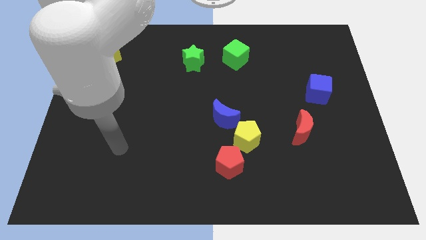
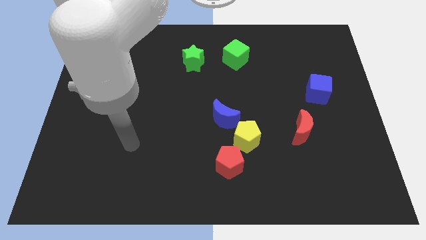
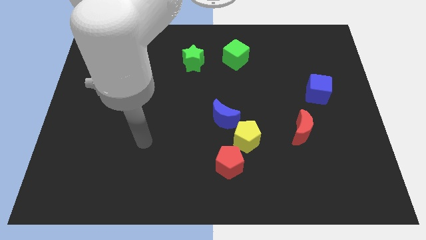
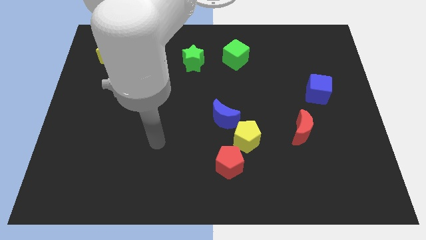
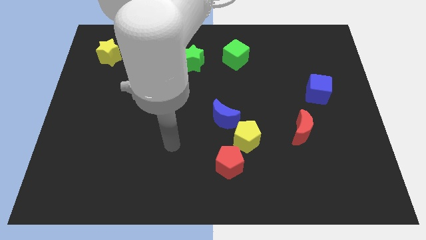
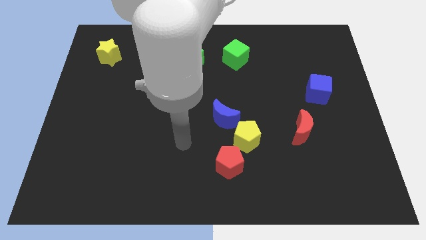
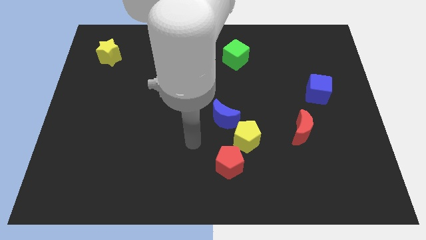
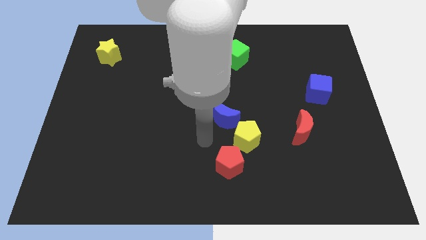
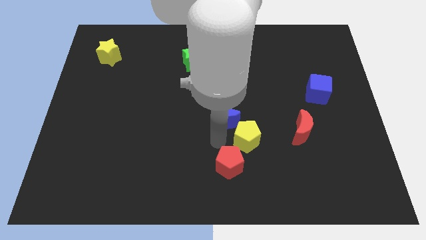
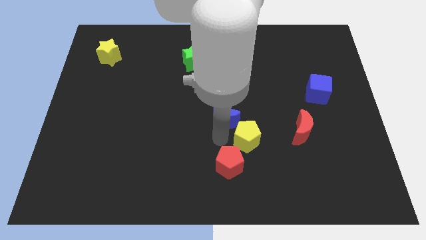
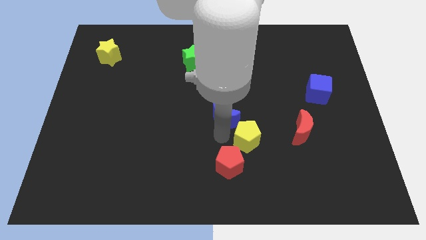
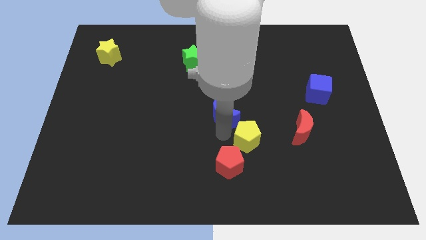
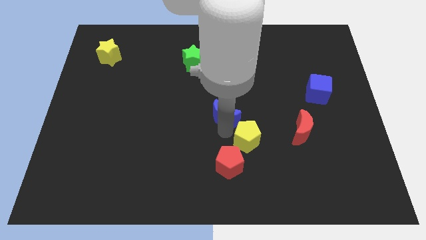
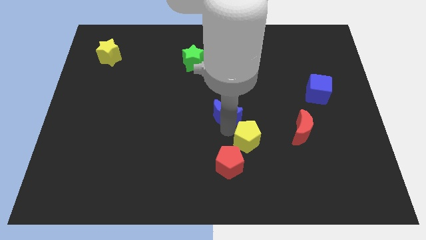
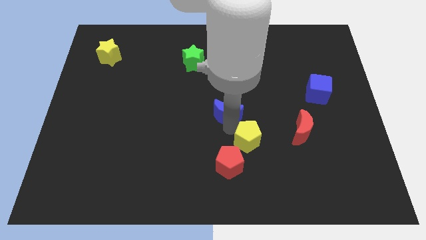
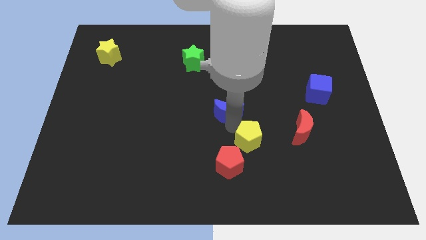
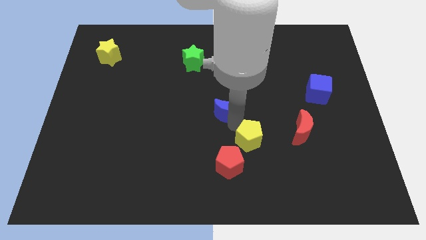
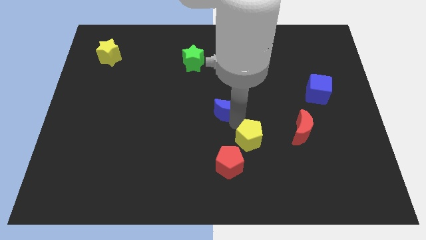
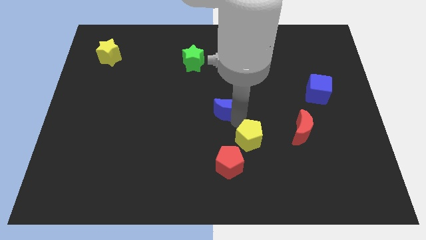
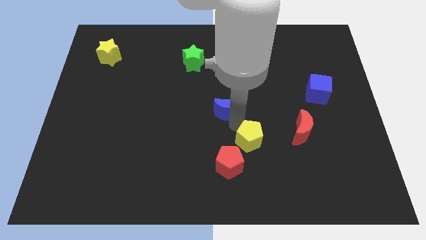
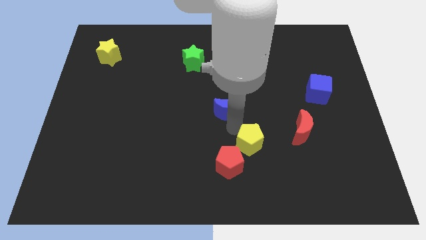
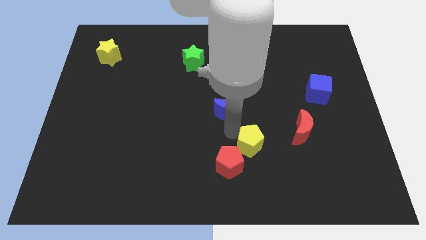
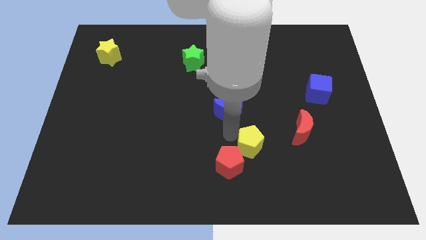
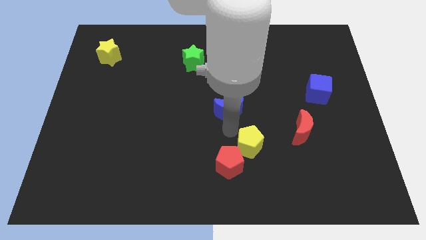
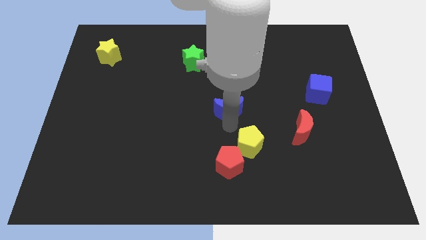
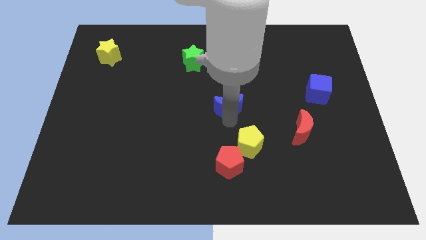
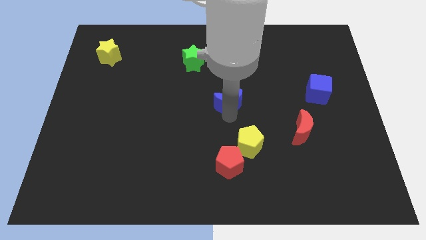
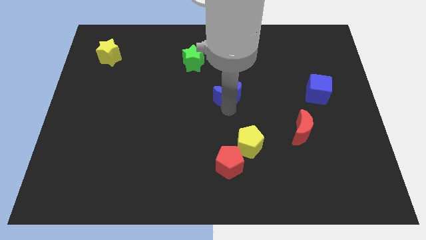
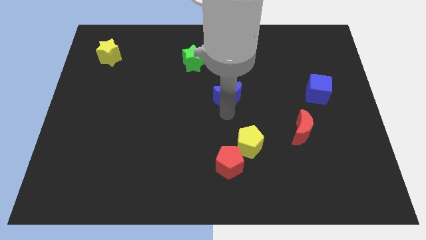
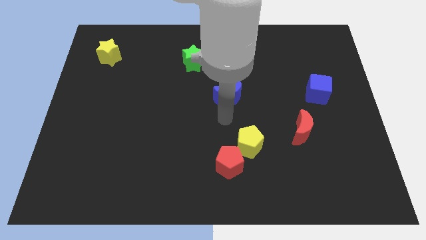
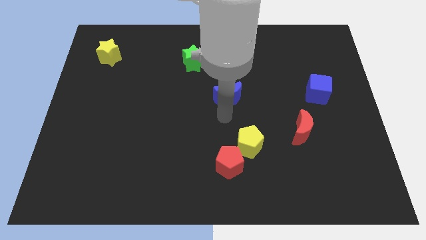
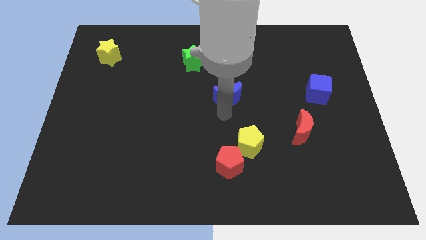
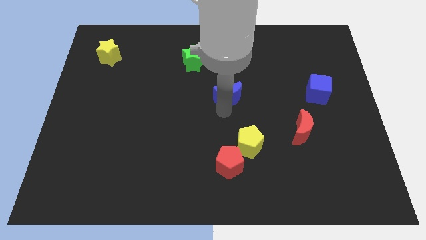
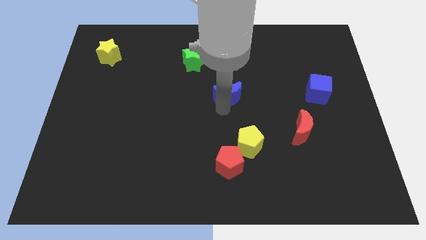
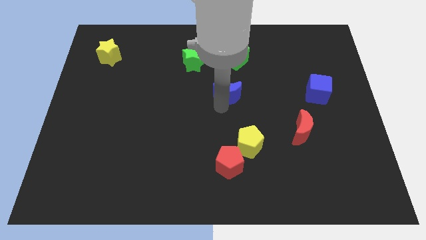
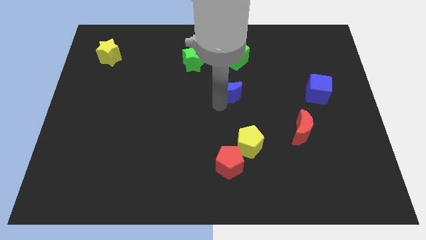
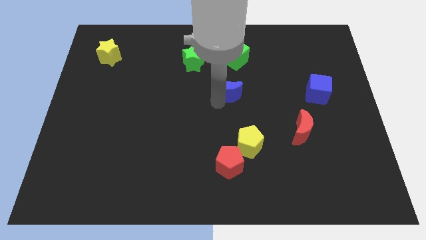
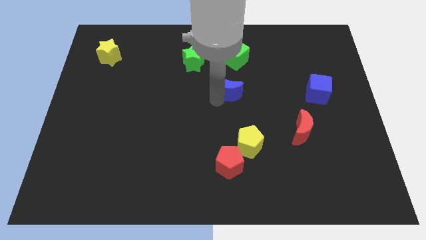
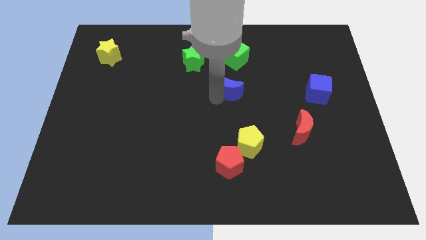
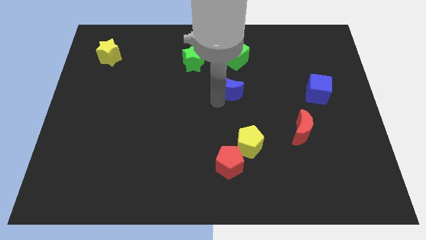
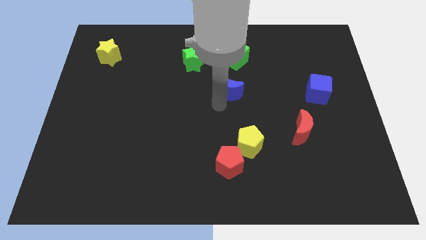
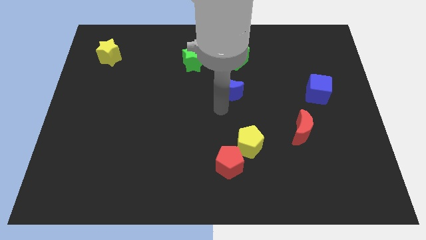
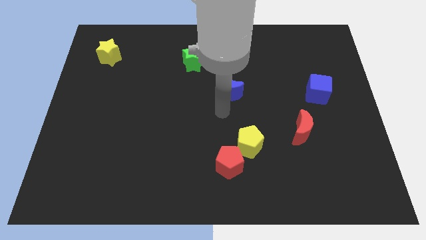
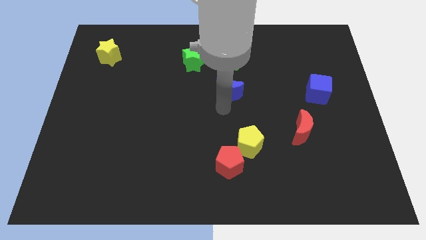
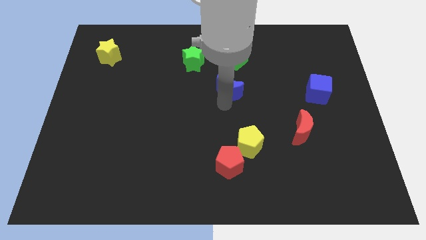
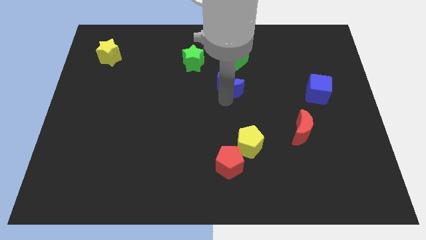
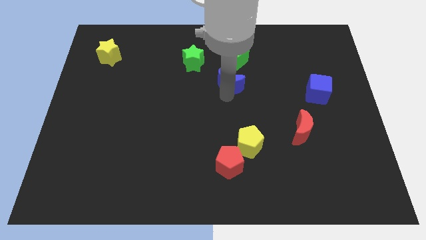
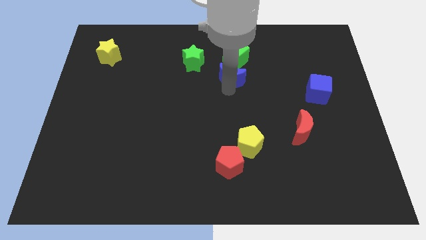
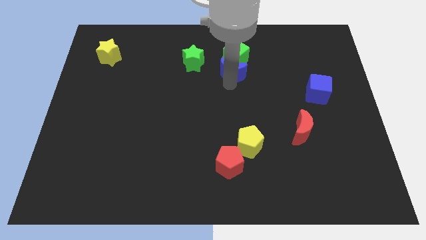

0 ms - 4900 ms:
push the blue moon next to the green cube

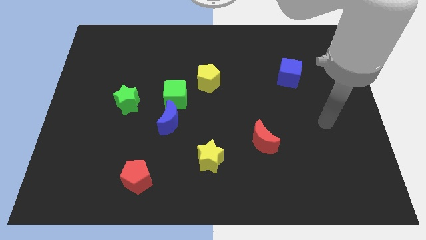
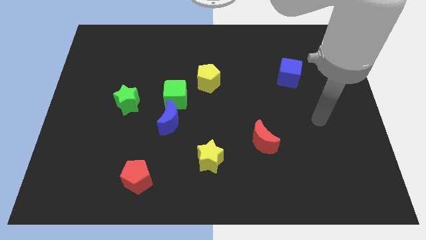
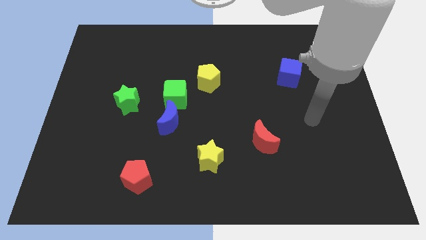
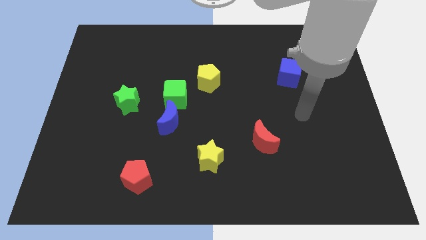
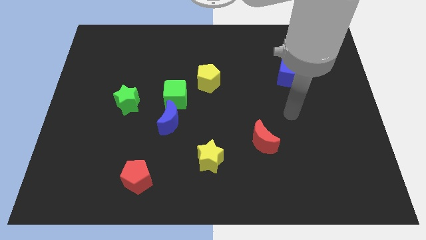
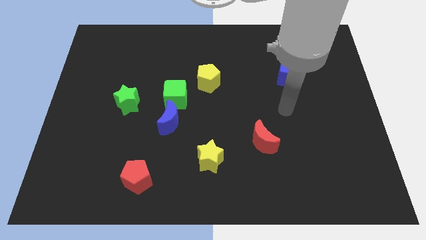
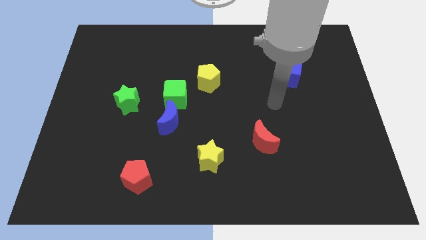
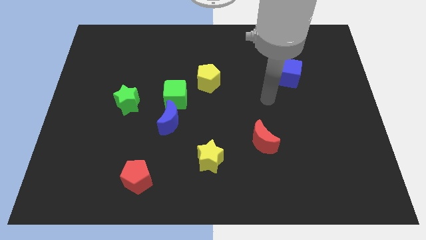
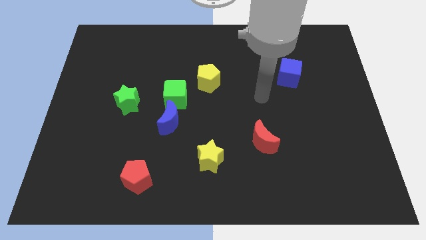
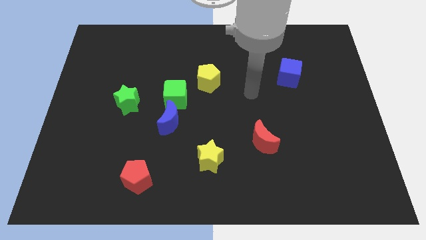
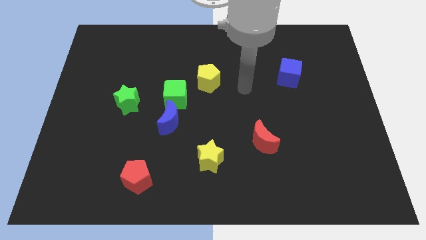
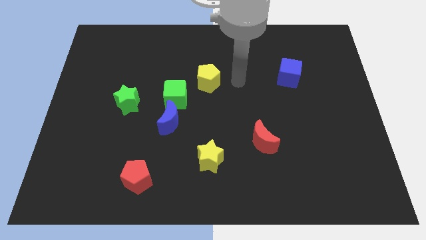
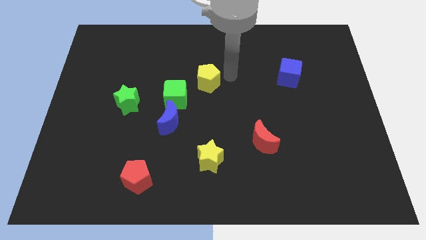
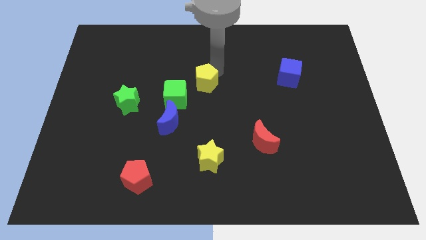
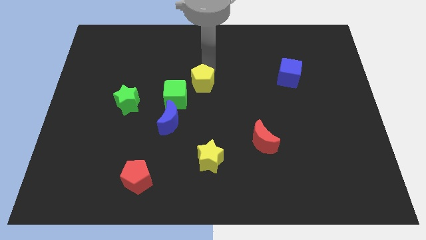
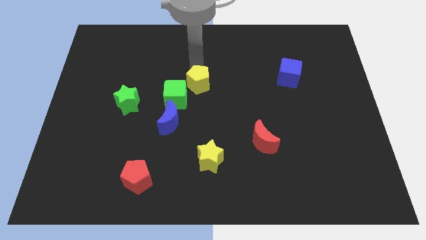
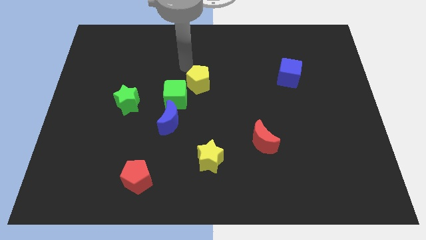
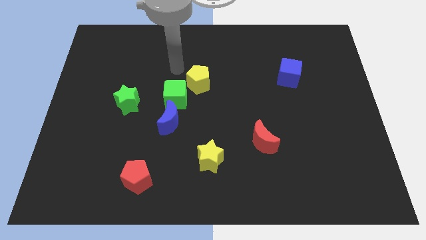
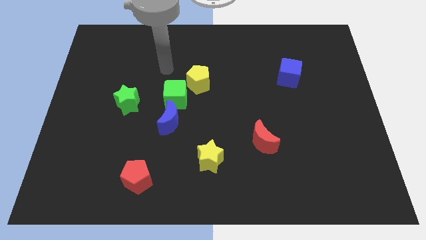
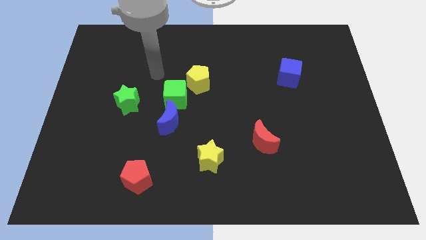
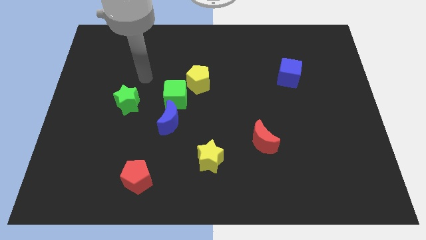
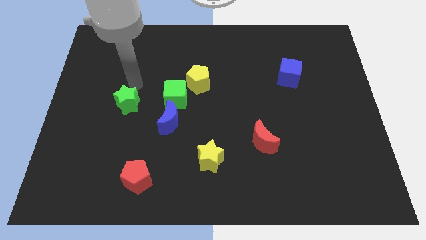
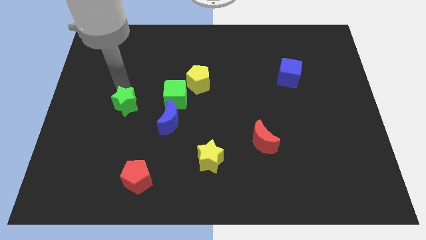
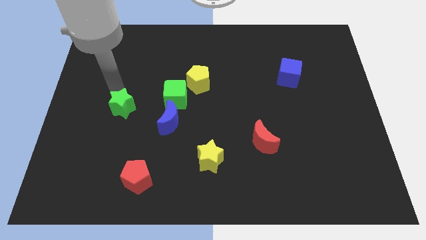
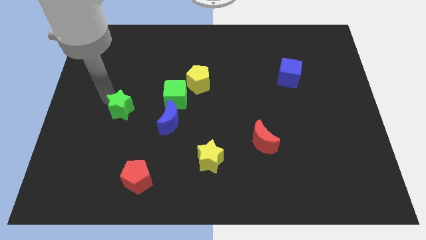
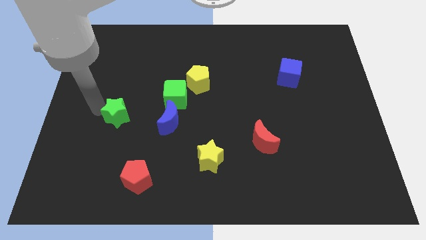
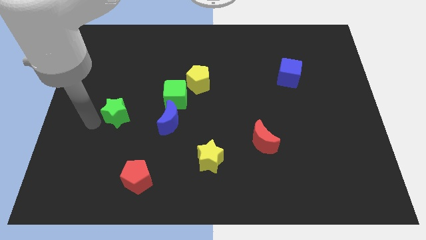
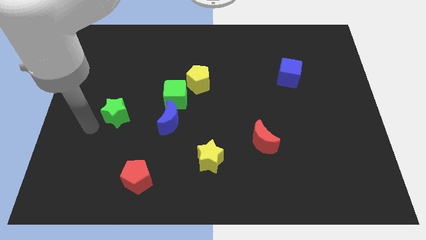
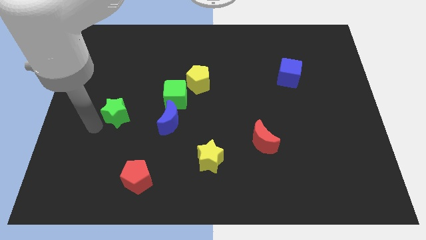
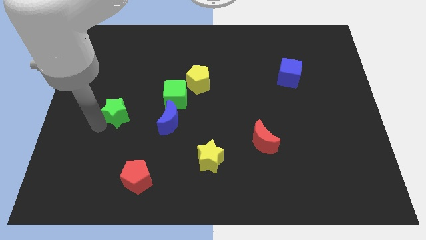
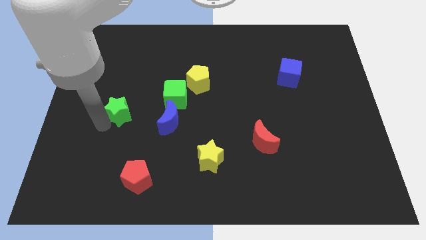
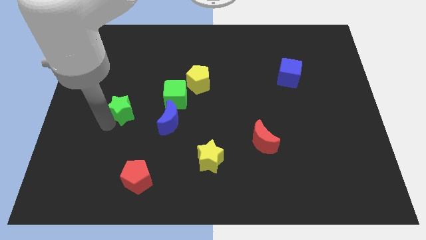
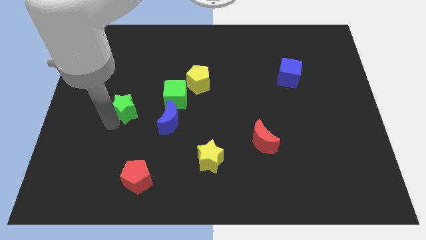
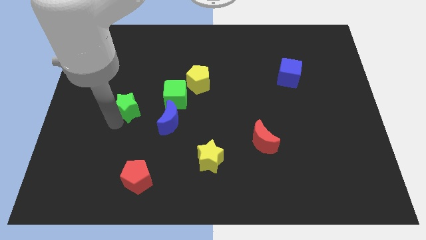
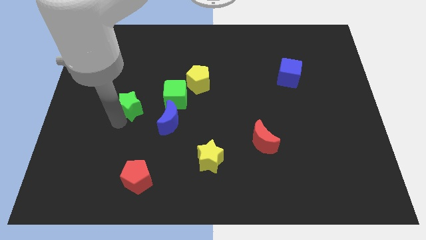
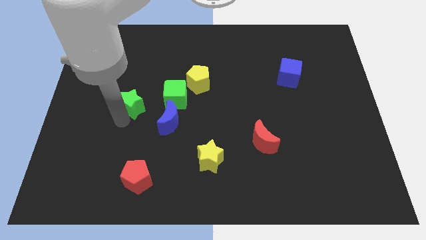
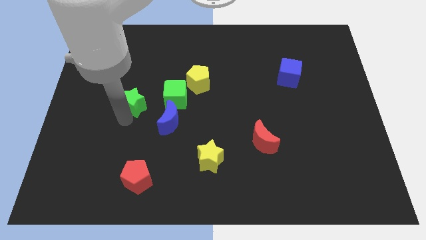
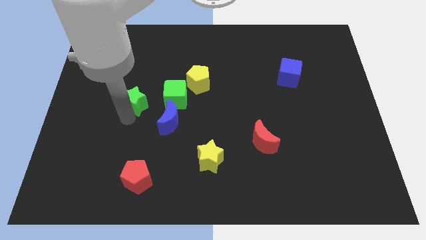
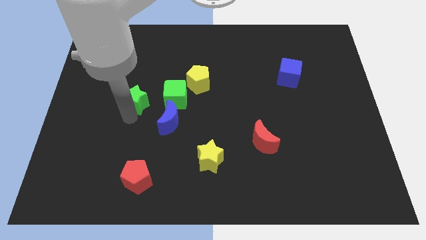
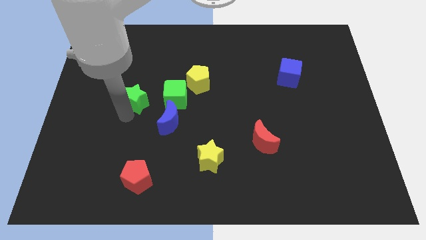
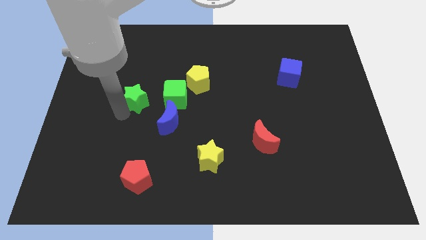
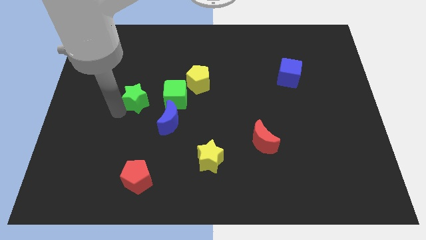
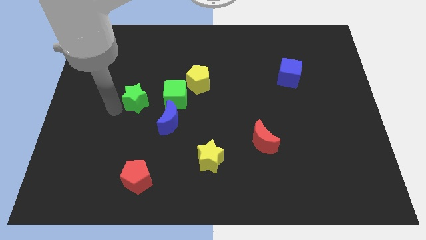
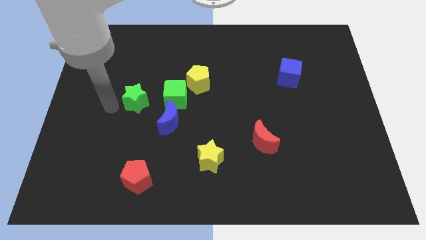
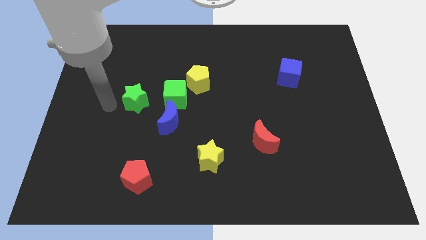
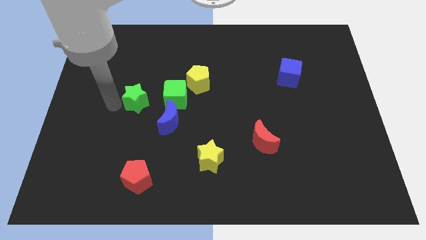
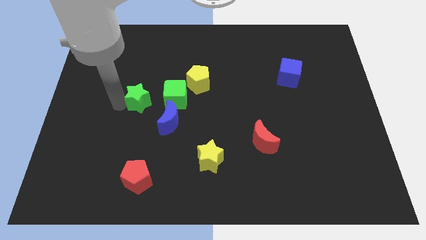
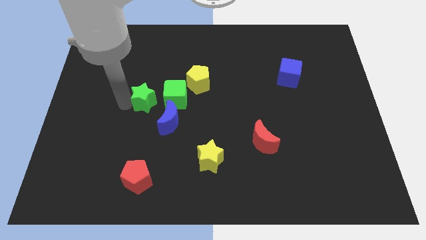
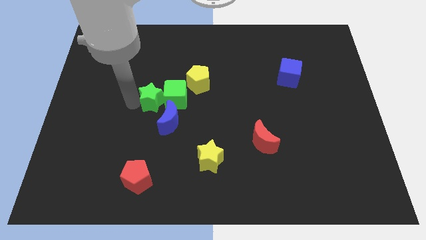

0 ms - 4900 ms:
push the green star to the green cube
